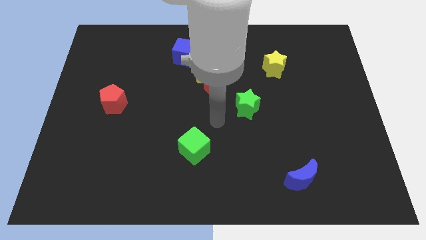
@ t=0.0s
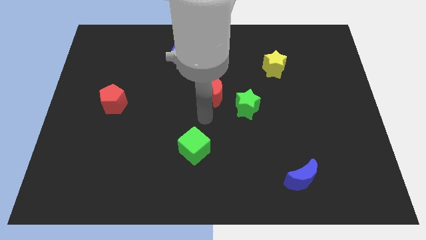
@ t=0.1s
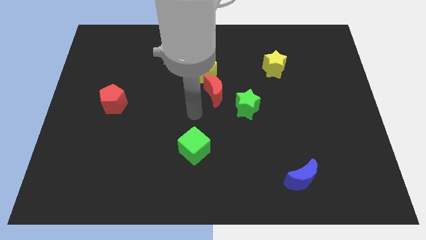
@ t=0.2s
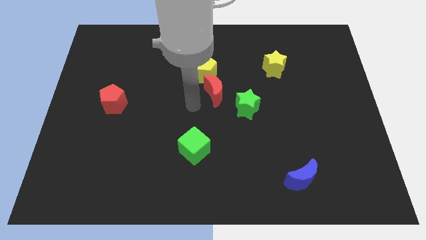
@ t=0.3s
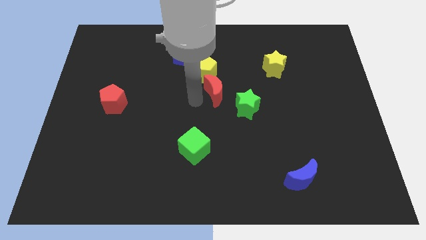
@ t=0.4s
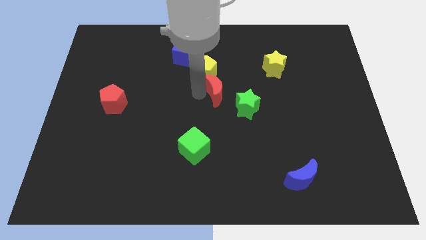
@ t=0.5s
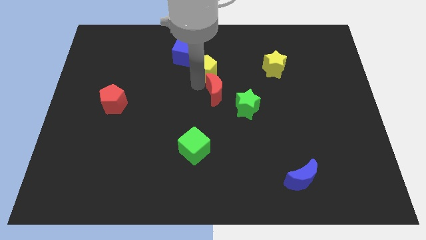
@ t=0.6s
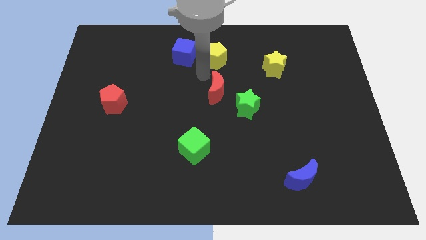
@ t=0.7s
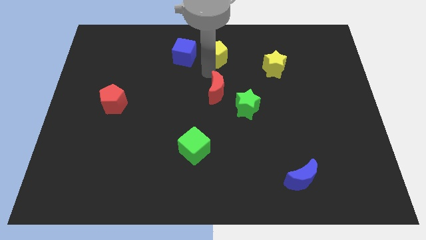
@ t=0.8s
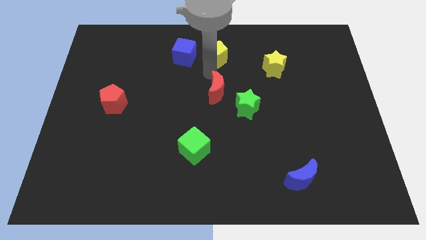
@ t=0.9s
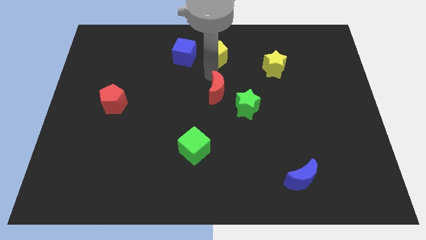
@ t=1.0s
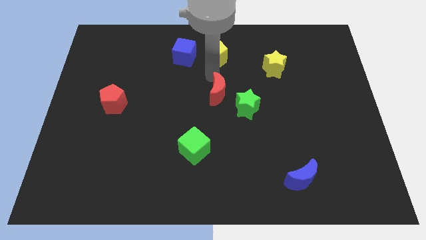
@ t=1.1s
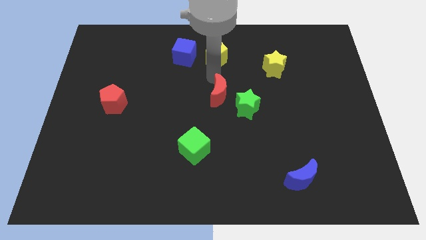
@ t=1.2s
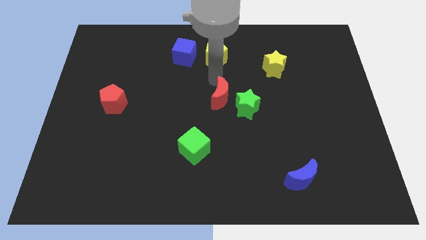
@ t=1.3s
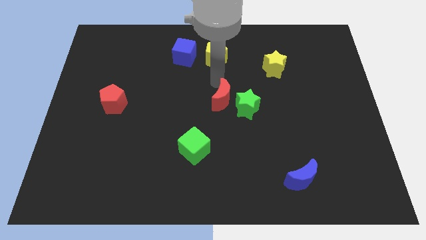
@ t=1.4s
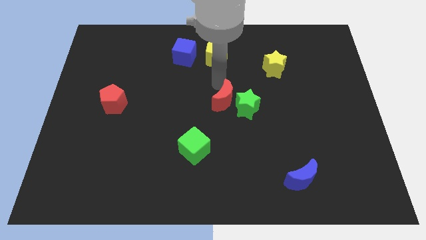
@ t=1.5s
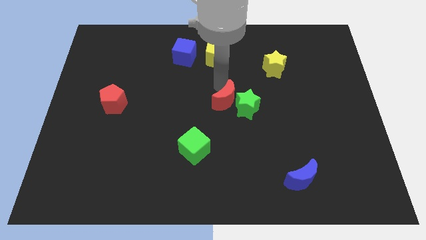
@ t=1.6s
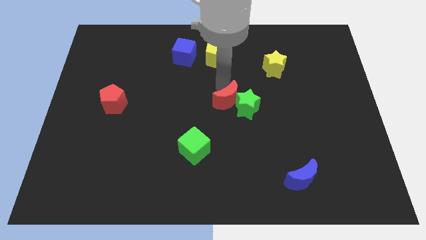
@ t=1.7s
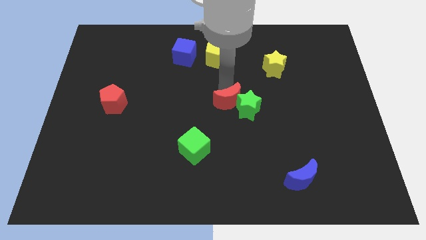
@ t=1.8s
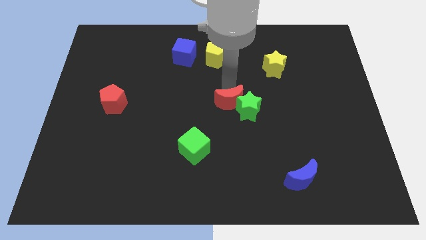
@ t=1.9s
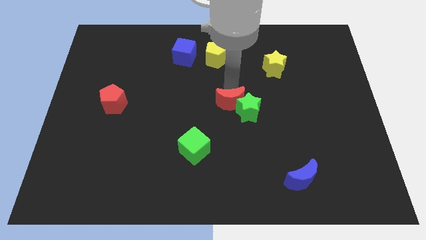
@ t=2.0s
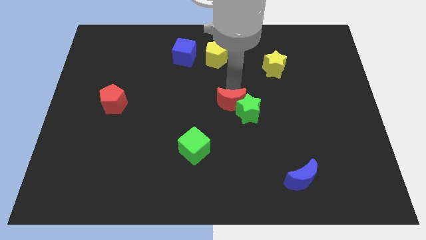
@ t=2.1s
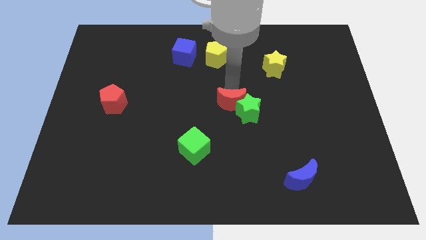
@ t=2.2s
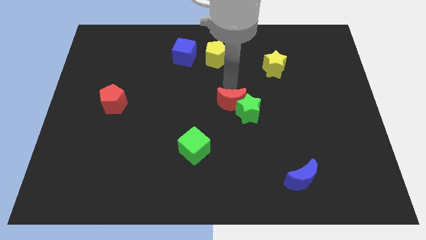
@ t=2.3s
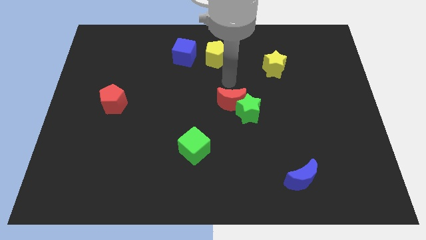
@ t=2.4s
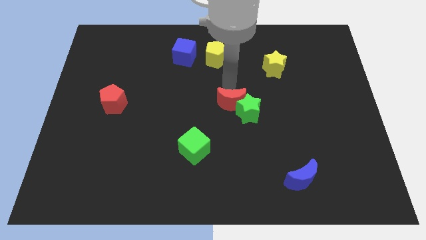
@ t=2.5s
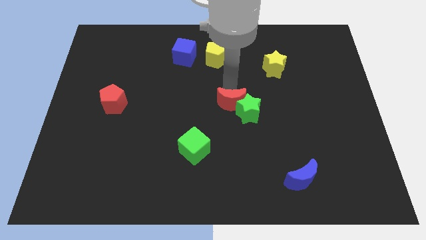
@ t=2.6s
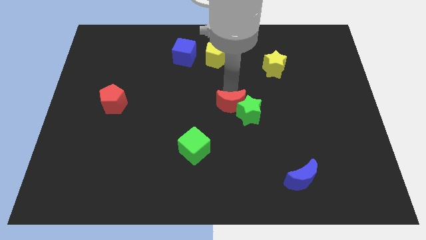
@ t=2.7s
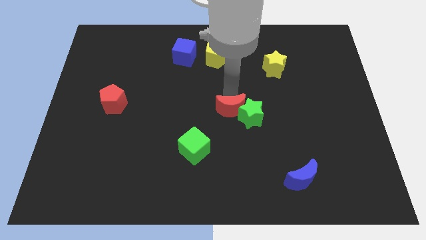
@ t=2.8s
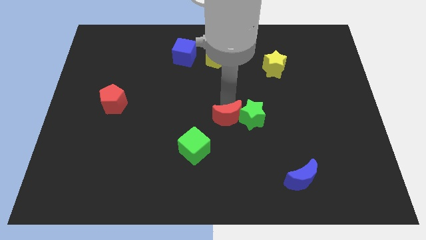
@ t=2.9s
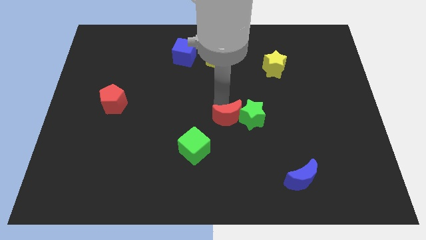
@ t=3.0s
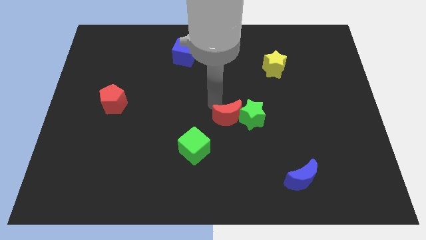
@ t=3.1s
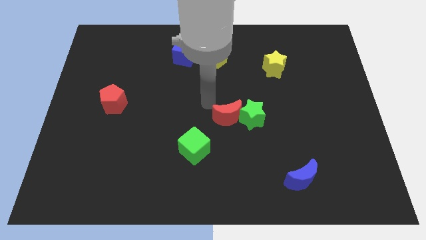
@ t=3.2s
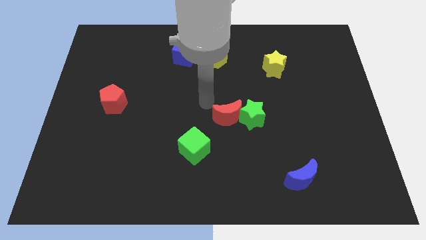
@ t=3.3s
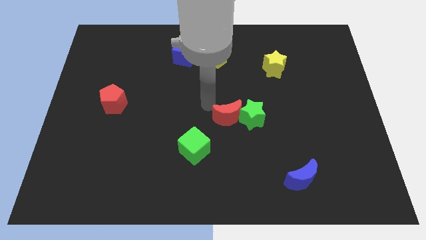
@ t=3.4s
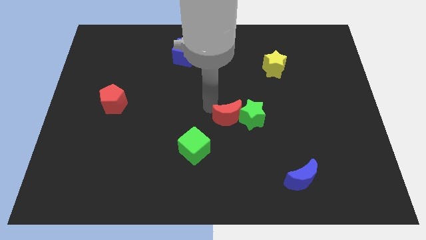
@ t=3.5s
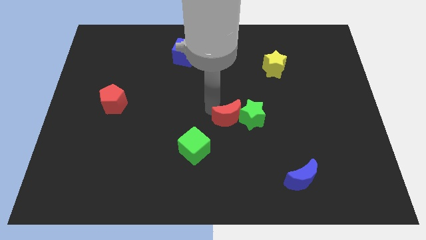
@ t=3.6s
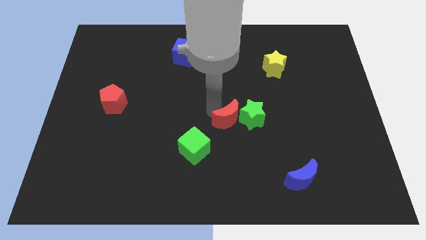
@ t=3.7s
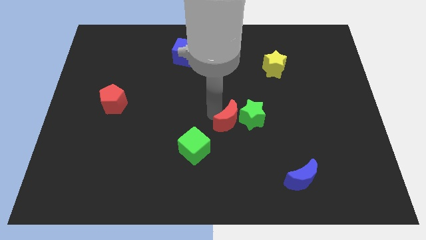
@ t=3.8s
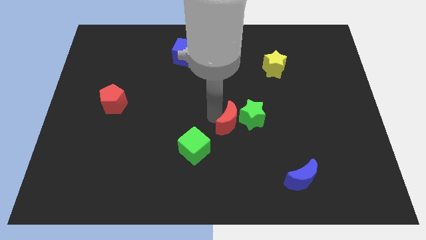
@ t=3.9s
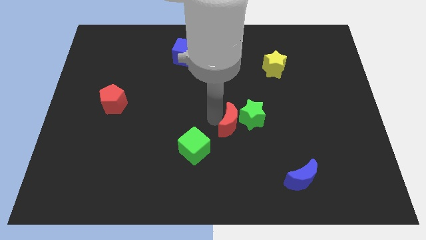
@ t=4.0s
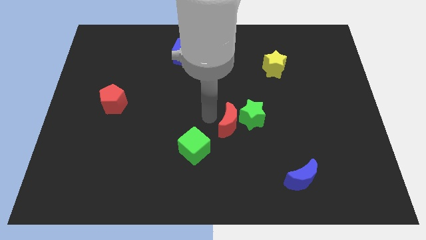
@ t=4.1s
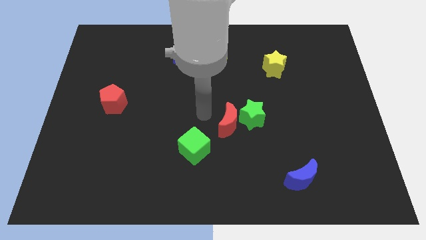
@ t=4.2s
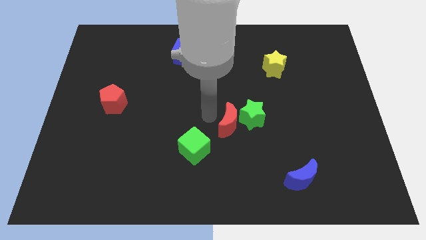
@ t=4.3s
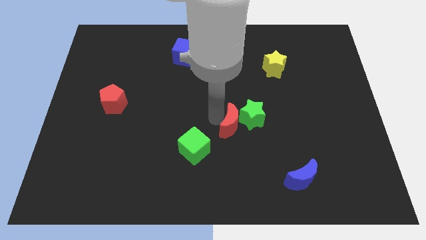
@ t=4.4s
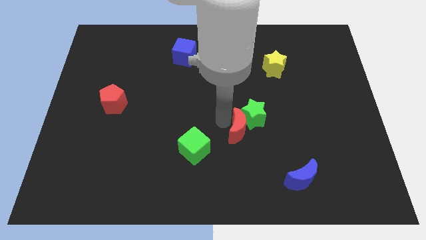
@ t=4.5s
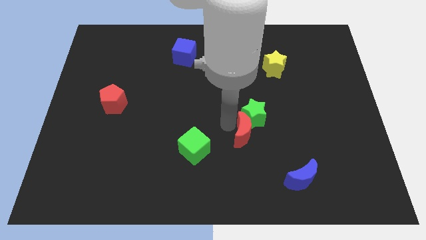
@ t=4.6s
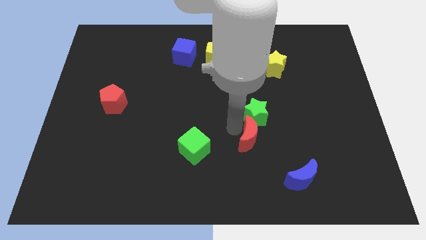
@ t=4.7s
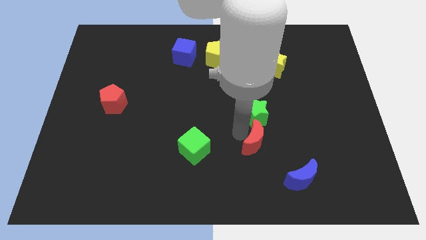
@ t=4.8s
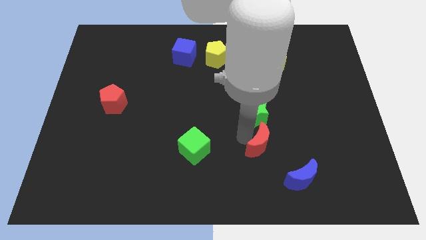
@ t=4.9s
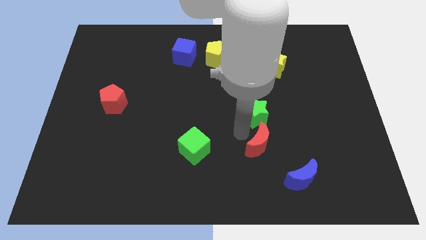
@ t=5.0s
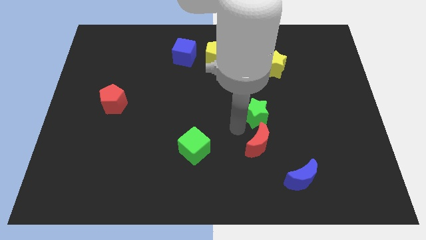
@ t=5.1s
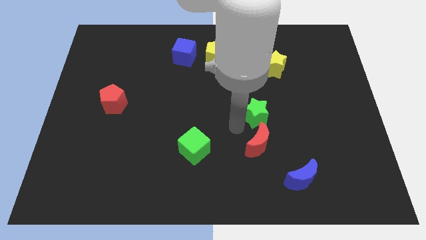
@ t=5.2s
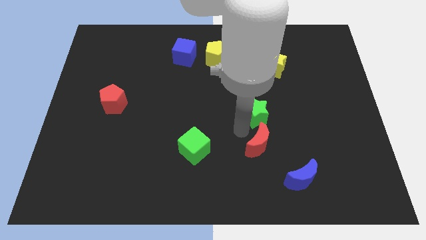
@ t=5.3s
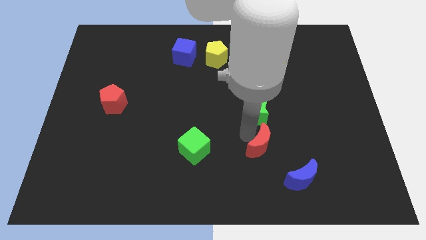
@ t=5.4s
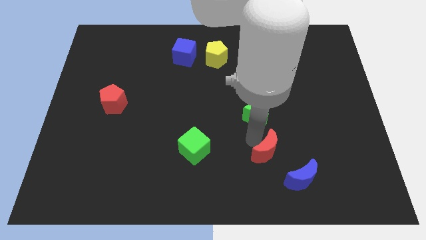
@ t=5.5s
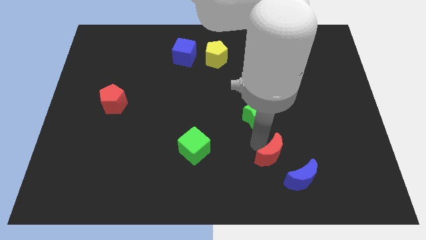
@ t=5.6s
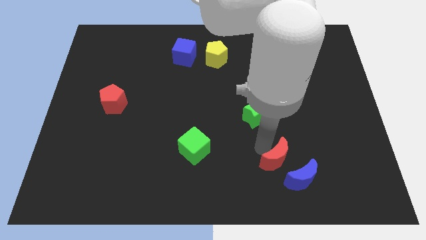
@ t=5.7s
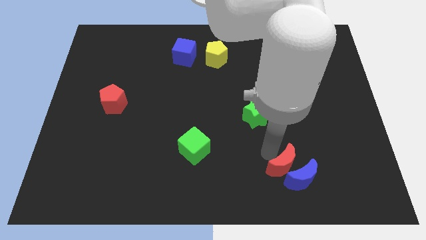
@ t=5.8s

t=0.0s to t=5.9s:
put the red moon next to the blue moon

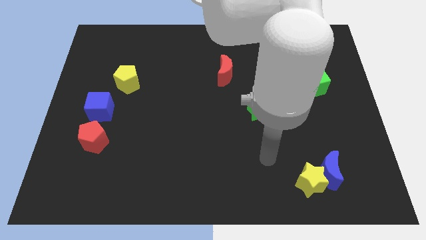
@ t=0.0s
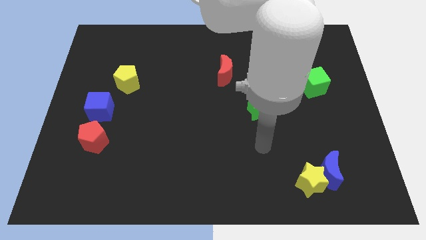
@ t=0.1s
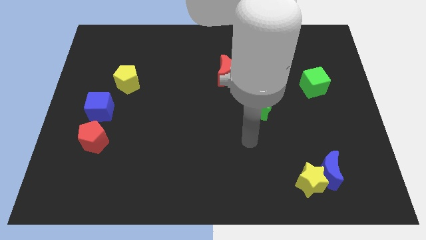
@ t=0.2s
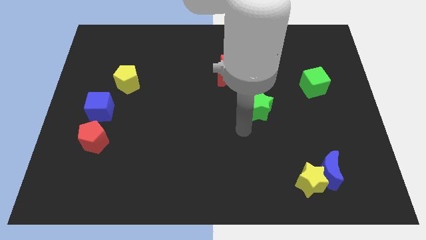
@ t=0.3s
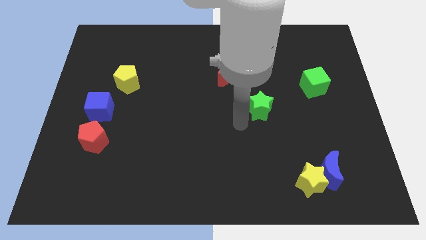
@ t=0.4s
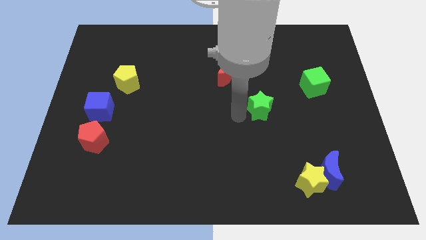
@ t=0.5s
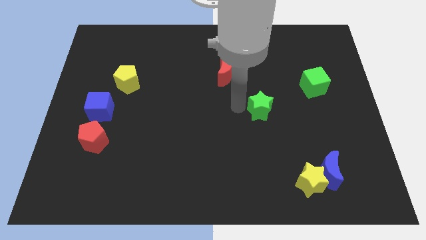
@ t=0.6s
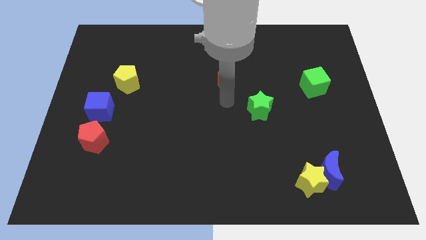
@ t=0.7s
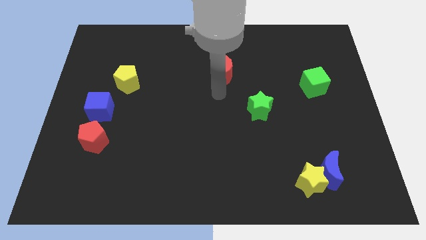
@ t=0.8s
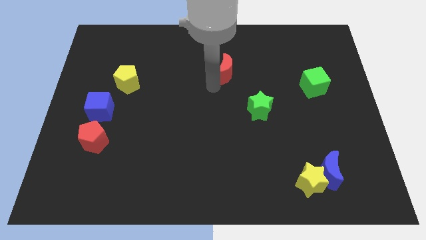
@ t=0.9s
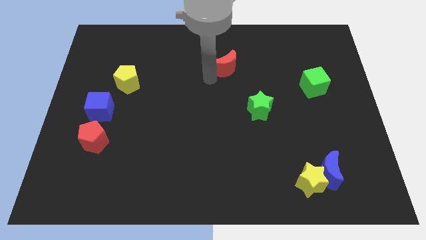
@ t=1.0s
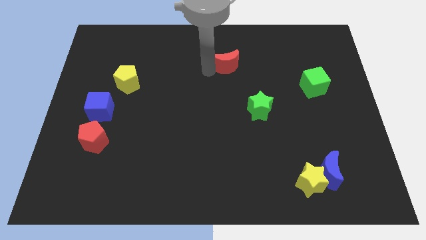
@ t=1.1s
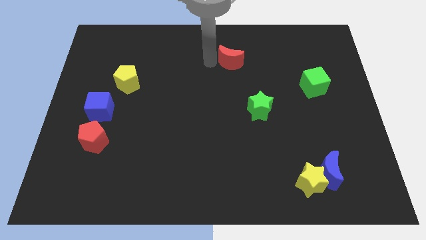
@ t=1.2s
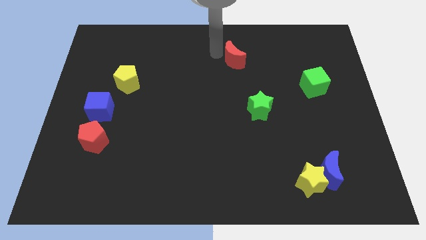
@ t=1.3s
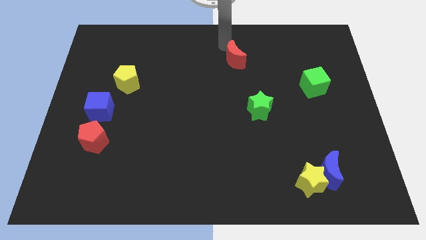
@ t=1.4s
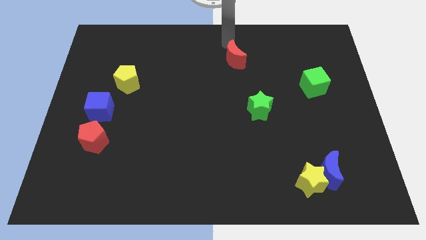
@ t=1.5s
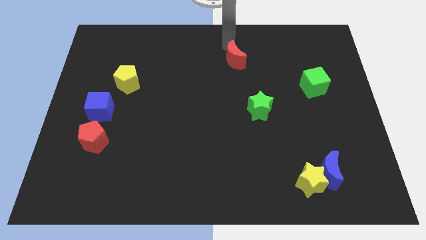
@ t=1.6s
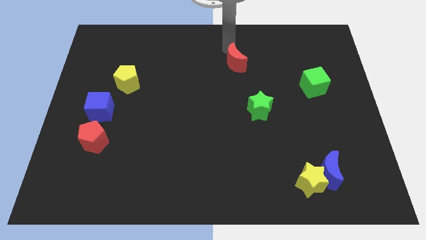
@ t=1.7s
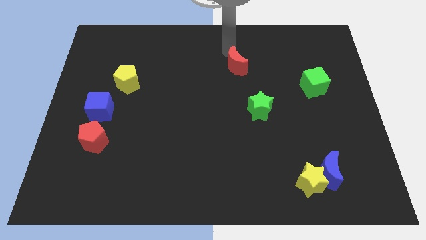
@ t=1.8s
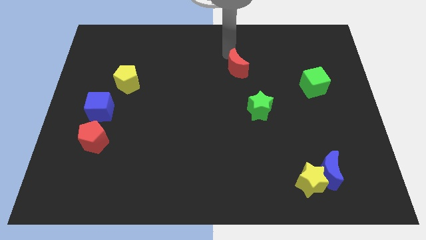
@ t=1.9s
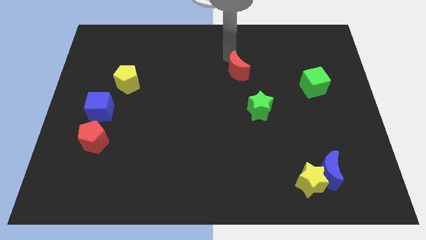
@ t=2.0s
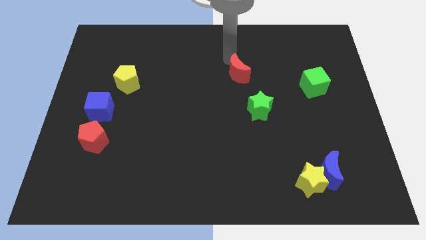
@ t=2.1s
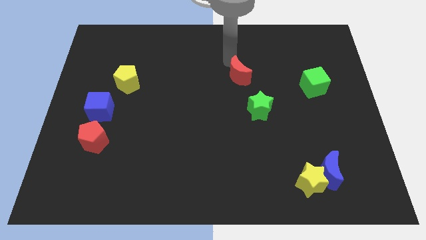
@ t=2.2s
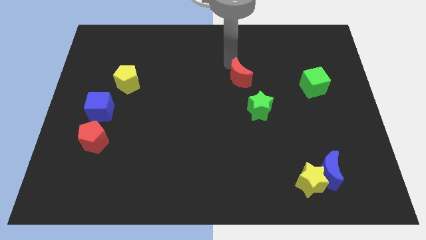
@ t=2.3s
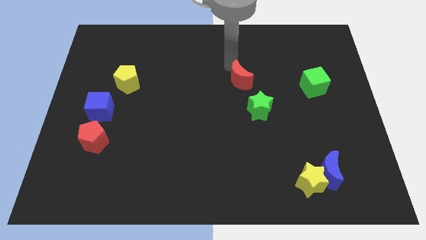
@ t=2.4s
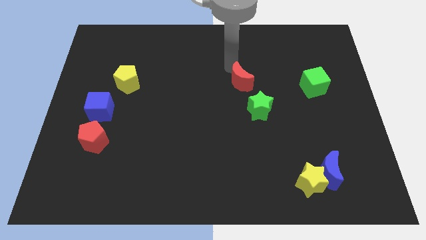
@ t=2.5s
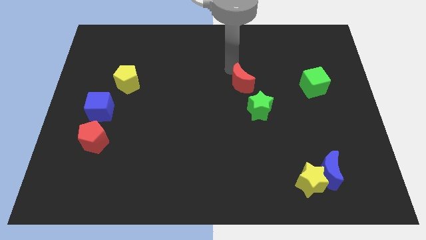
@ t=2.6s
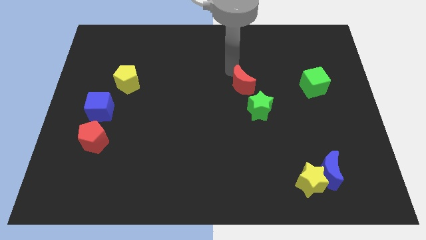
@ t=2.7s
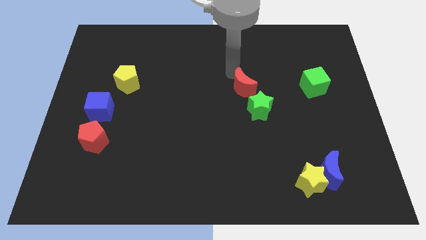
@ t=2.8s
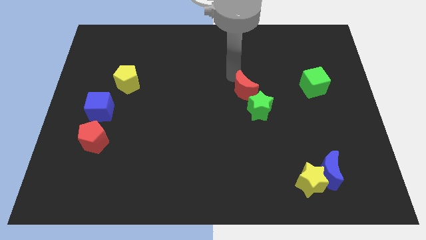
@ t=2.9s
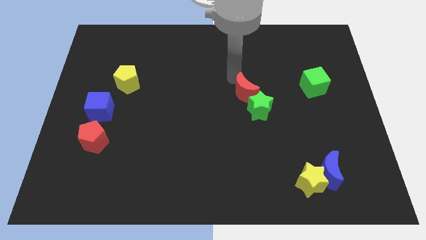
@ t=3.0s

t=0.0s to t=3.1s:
push the red moon to the green star
